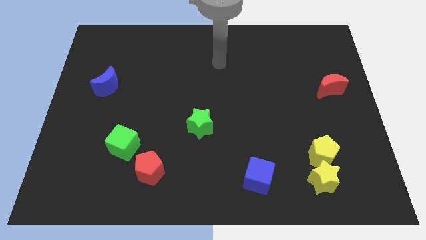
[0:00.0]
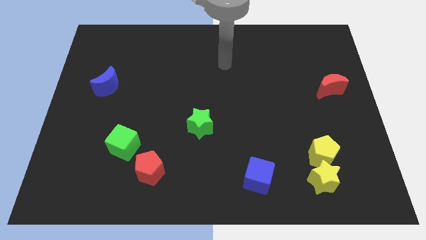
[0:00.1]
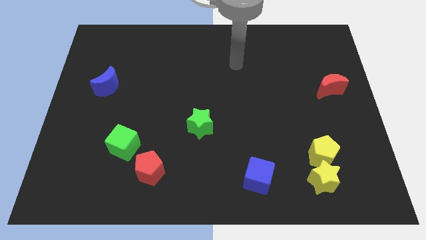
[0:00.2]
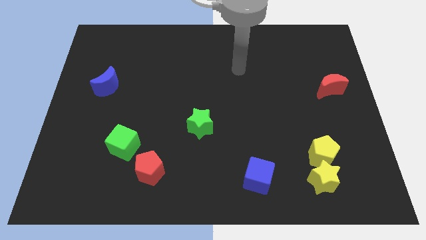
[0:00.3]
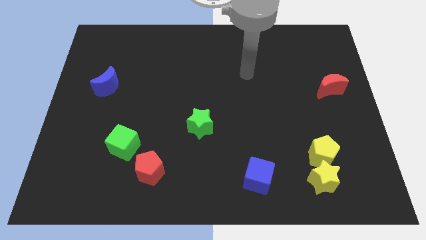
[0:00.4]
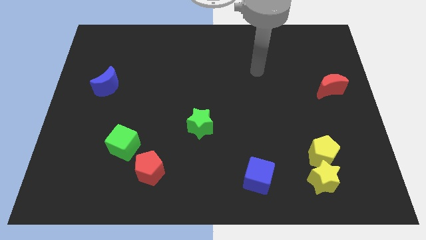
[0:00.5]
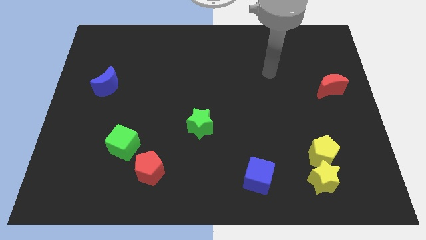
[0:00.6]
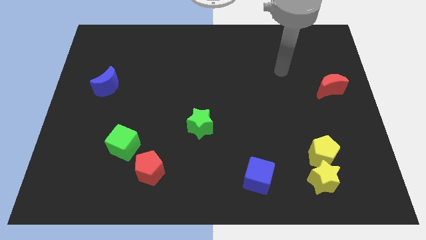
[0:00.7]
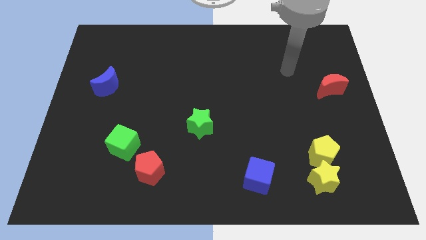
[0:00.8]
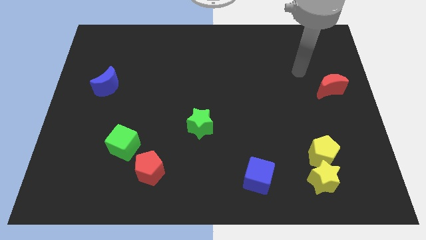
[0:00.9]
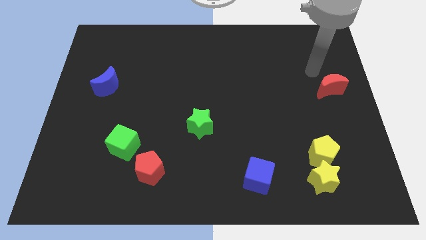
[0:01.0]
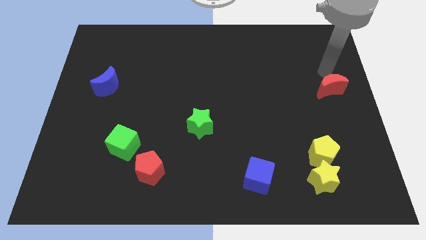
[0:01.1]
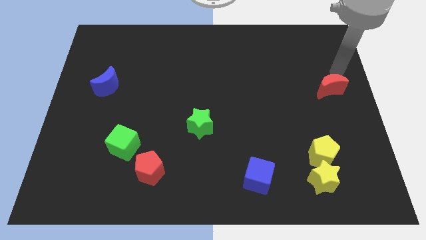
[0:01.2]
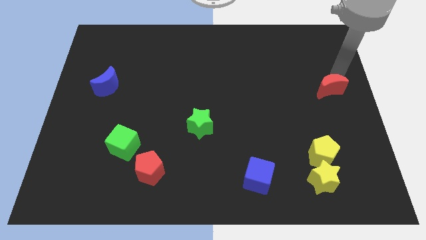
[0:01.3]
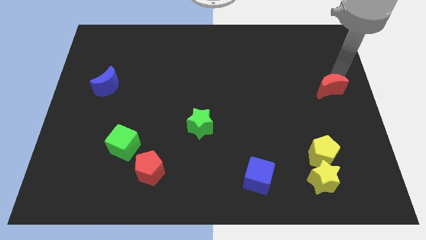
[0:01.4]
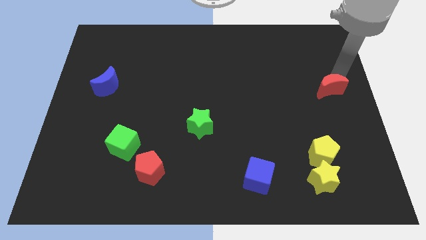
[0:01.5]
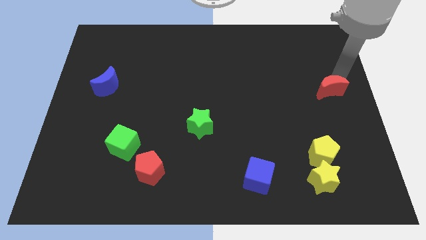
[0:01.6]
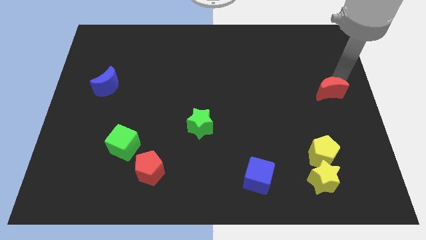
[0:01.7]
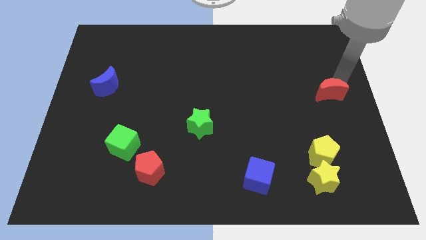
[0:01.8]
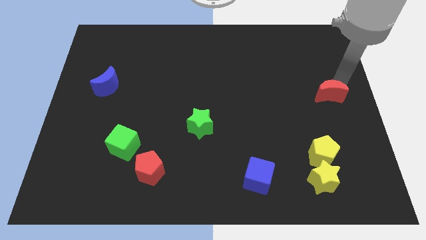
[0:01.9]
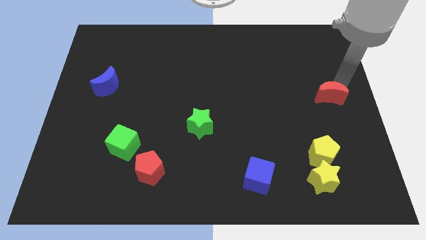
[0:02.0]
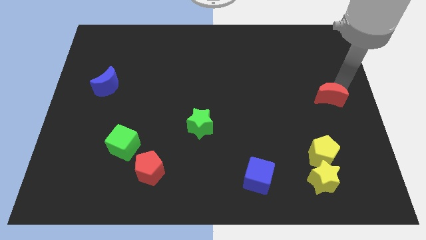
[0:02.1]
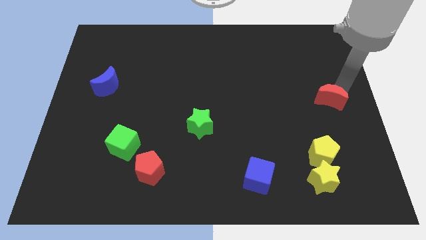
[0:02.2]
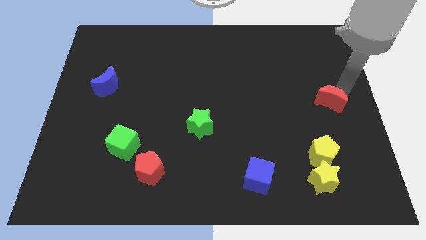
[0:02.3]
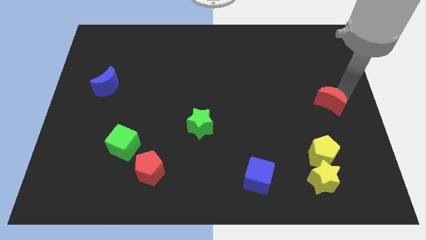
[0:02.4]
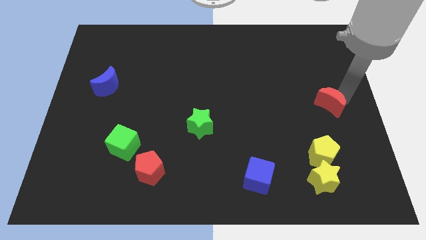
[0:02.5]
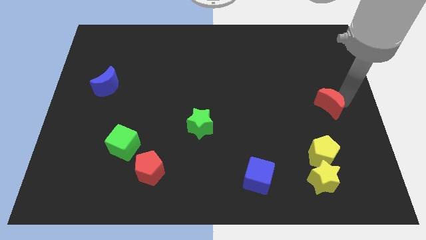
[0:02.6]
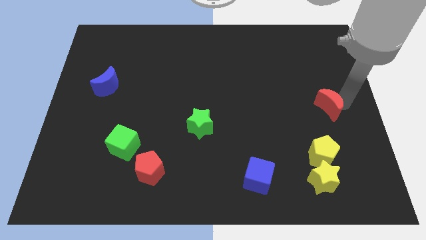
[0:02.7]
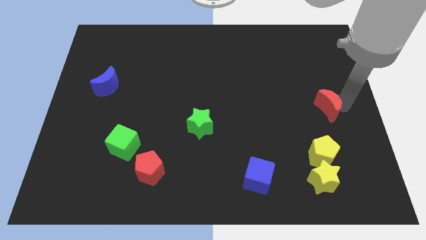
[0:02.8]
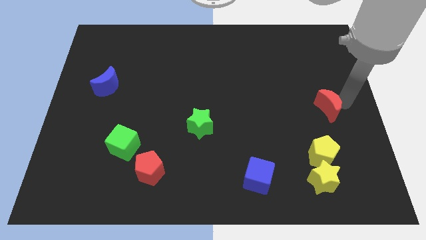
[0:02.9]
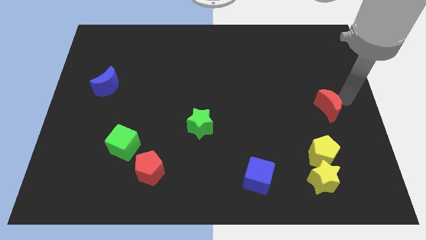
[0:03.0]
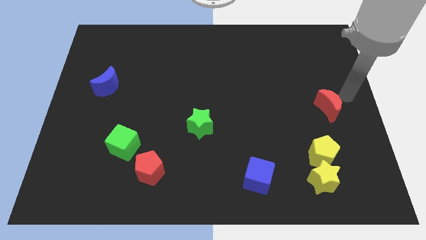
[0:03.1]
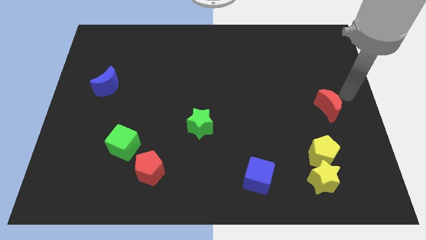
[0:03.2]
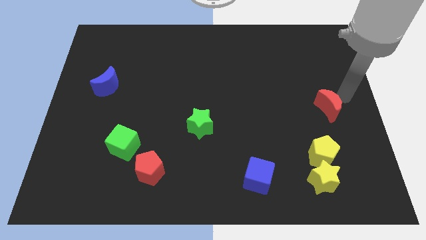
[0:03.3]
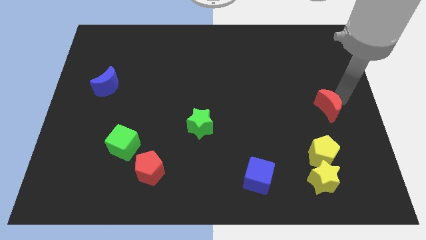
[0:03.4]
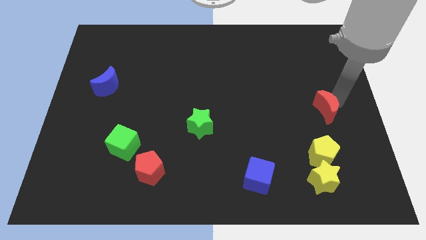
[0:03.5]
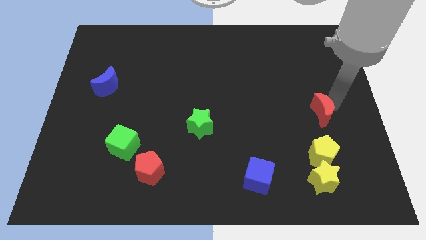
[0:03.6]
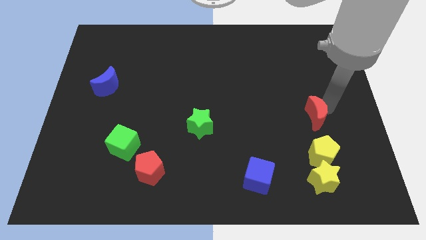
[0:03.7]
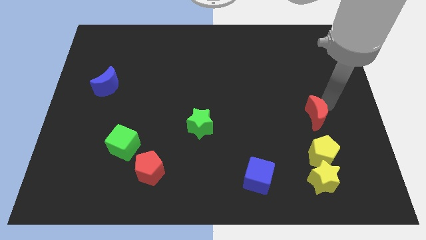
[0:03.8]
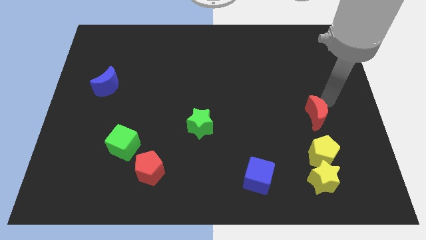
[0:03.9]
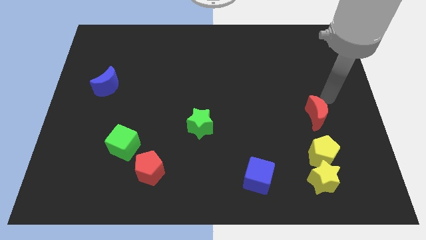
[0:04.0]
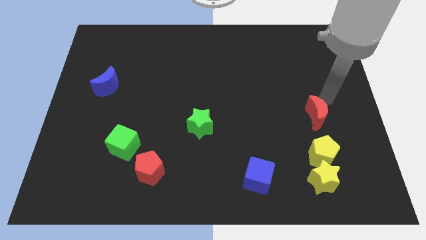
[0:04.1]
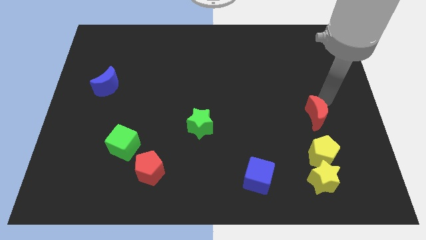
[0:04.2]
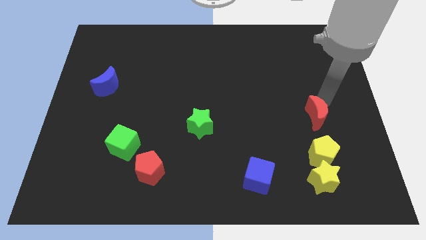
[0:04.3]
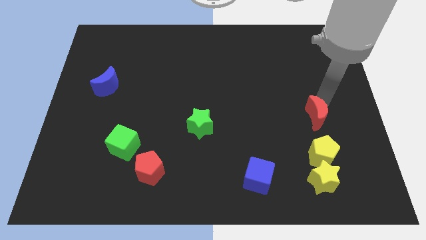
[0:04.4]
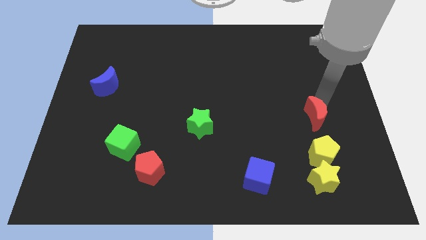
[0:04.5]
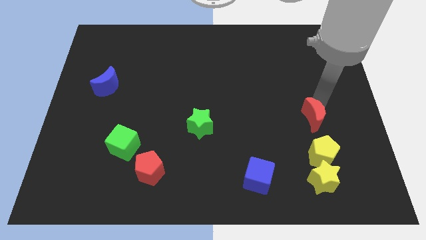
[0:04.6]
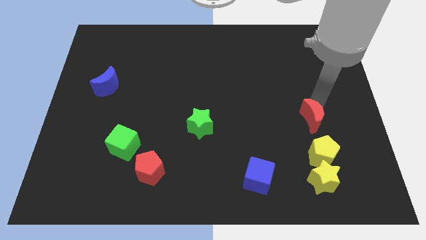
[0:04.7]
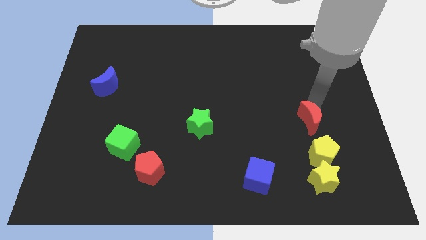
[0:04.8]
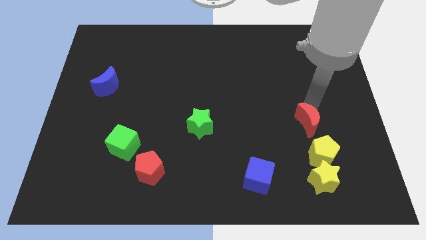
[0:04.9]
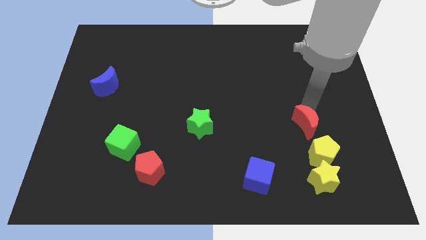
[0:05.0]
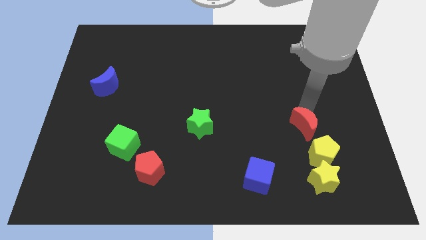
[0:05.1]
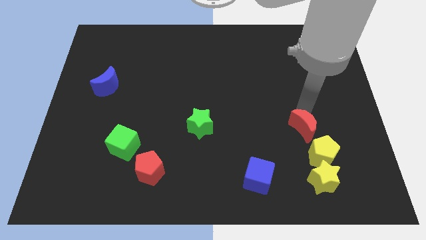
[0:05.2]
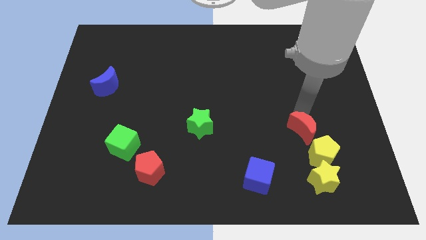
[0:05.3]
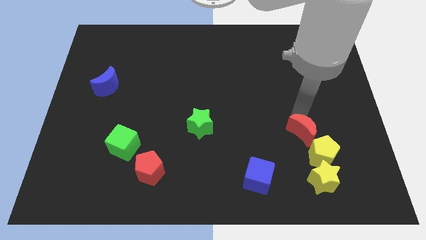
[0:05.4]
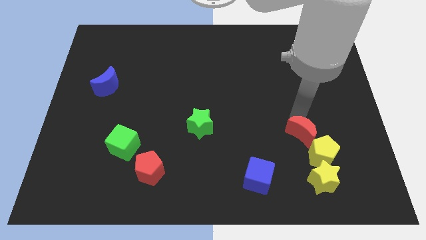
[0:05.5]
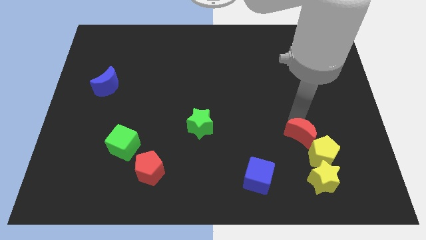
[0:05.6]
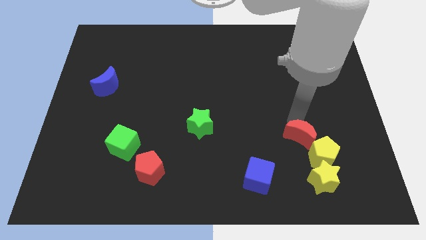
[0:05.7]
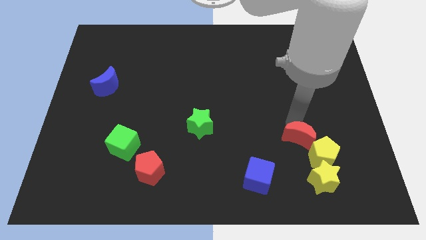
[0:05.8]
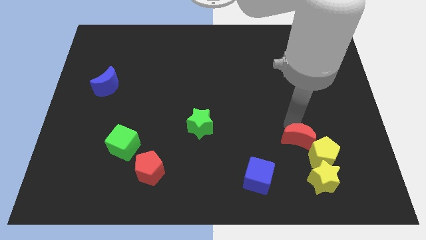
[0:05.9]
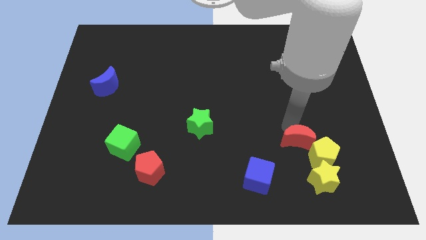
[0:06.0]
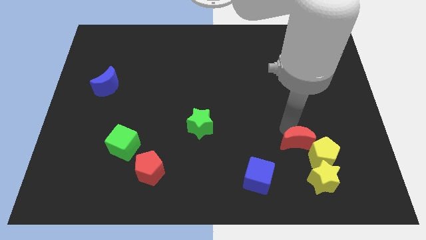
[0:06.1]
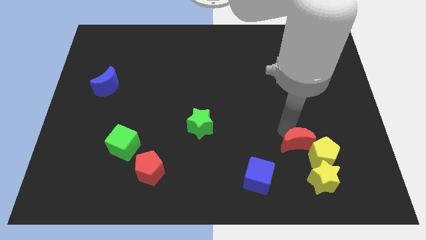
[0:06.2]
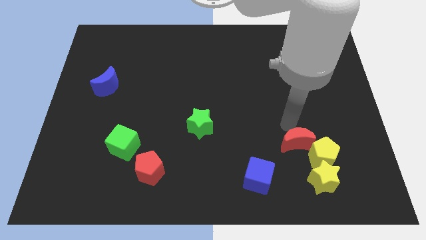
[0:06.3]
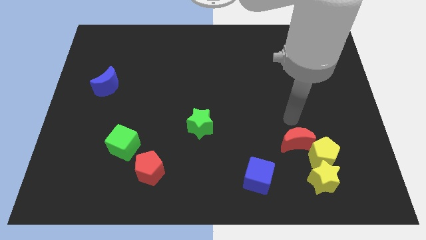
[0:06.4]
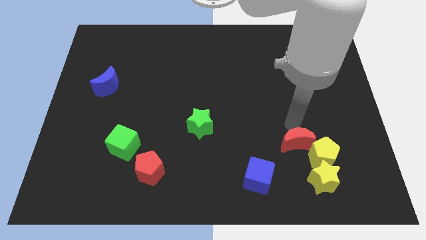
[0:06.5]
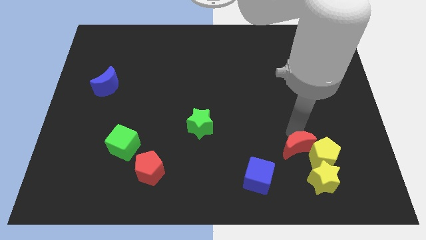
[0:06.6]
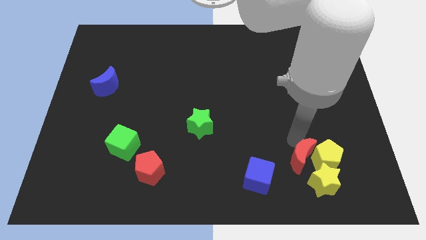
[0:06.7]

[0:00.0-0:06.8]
slide the red moon diagonally down and to the left of the yellow pentagon
